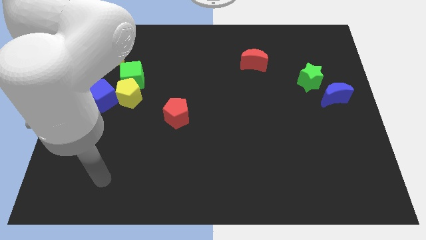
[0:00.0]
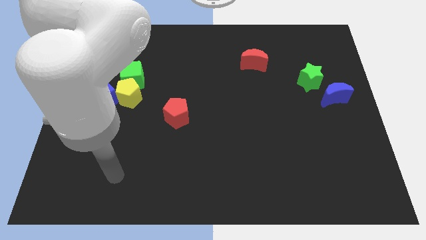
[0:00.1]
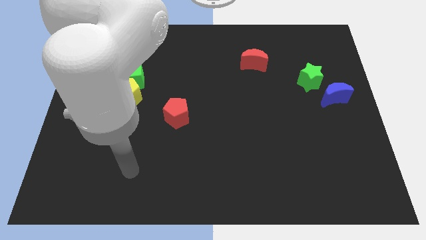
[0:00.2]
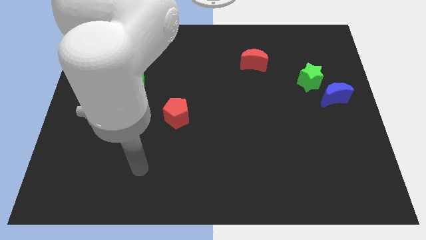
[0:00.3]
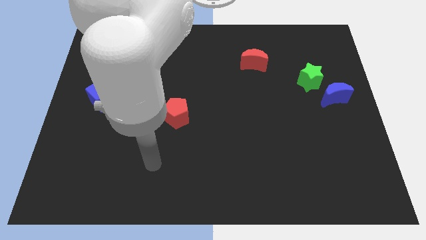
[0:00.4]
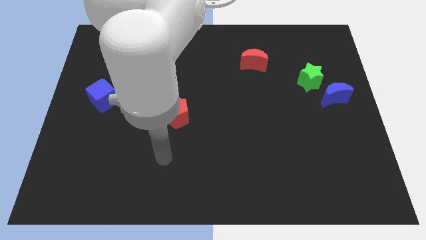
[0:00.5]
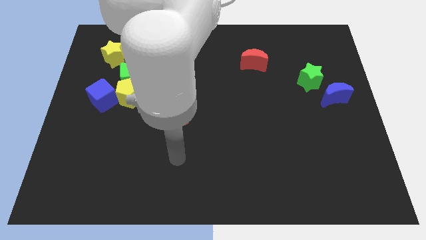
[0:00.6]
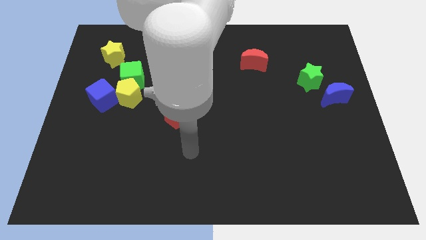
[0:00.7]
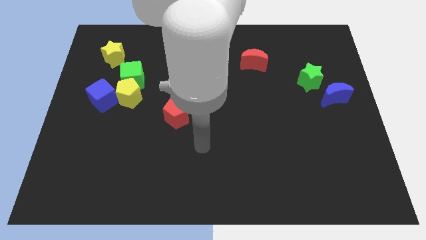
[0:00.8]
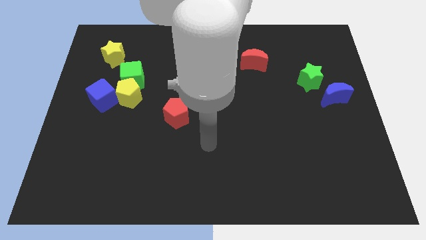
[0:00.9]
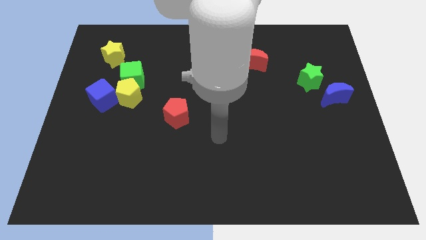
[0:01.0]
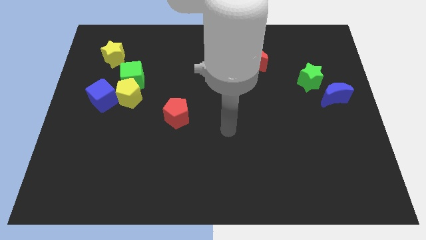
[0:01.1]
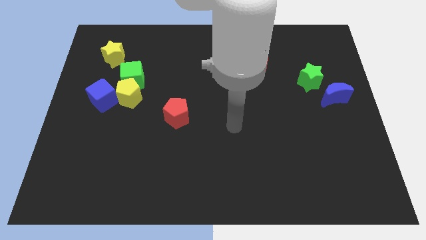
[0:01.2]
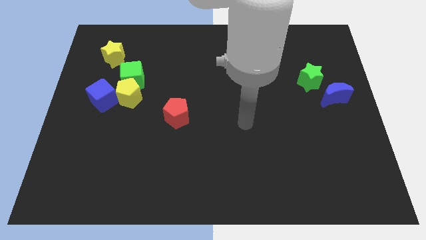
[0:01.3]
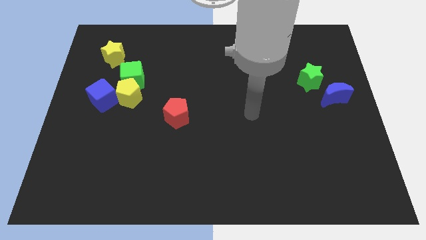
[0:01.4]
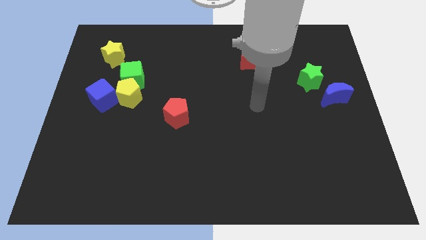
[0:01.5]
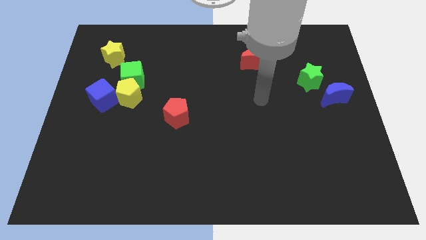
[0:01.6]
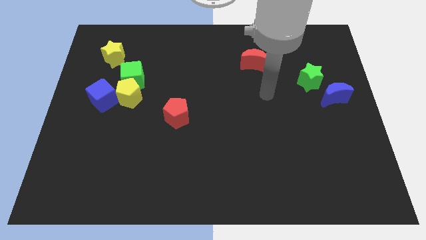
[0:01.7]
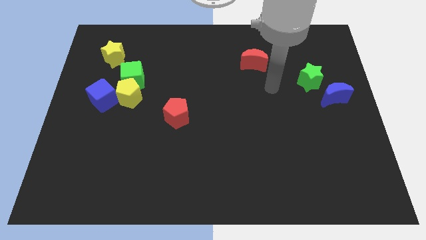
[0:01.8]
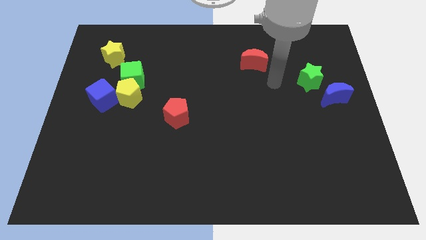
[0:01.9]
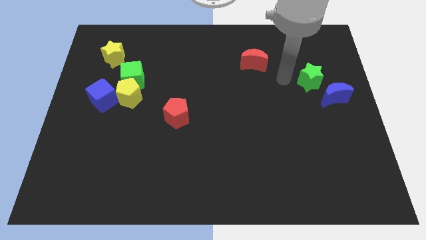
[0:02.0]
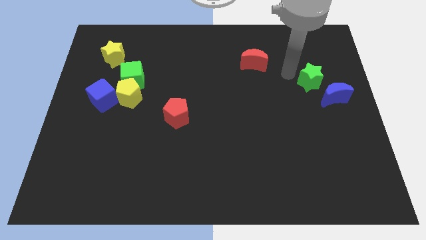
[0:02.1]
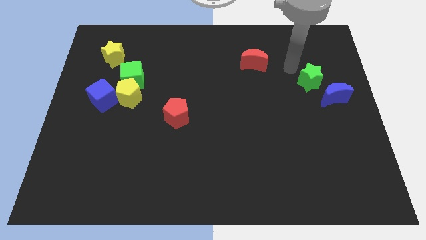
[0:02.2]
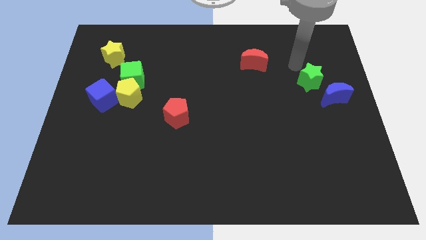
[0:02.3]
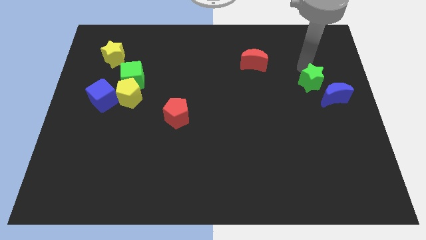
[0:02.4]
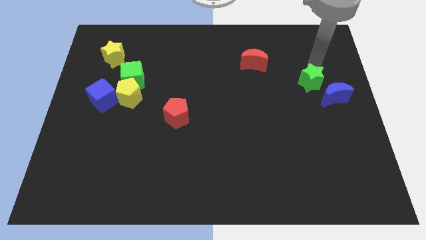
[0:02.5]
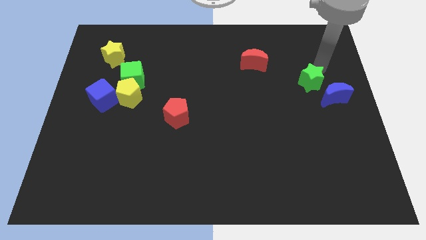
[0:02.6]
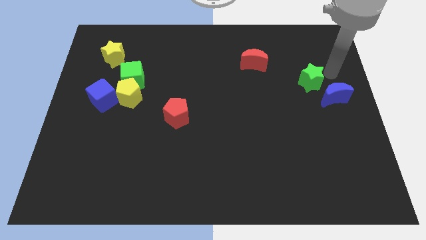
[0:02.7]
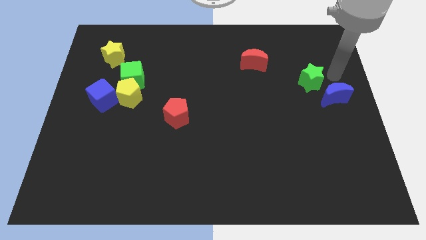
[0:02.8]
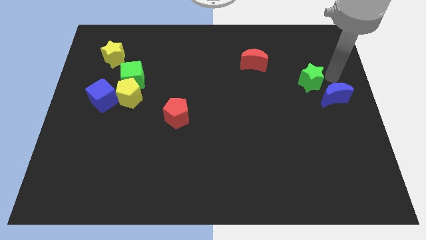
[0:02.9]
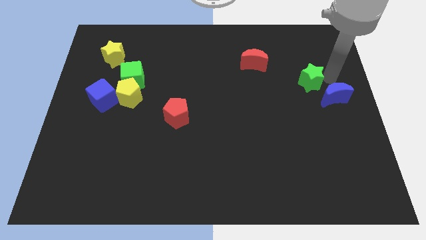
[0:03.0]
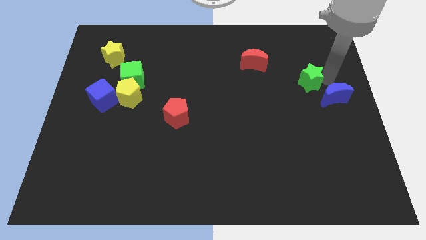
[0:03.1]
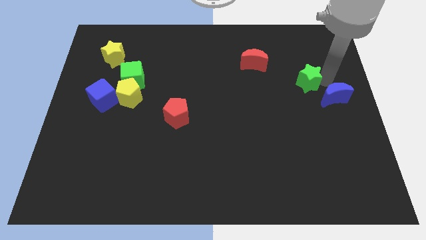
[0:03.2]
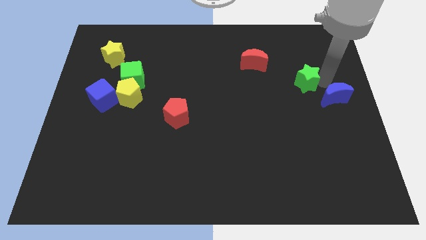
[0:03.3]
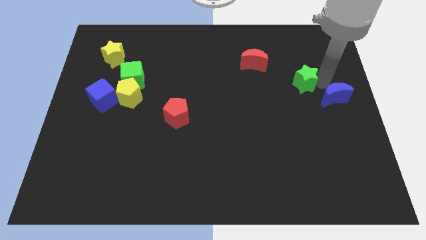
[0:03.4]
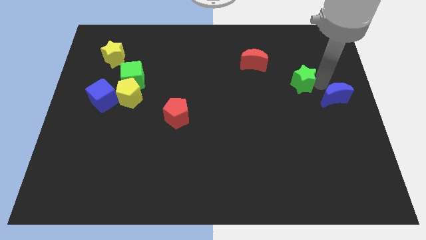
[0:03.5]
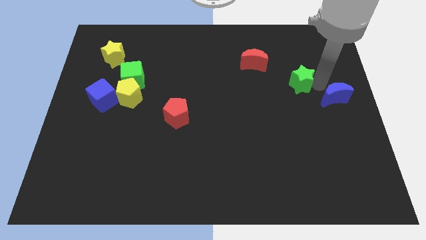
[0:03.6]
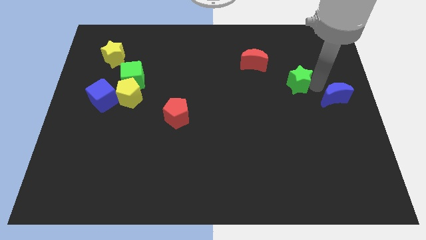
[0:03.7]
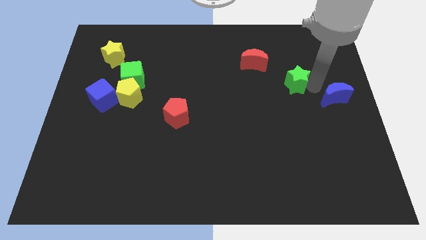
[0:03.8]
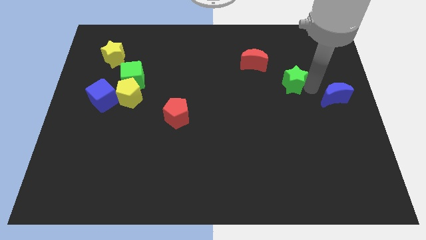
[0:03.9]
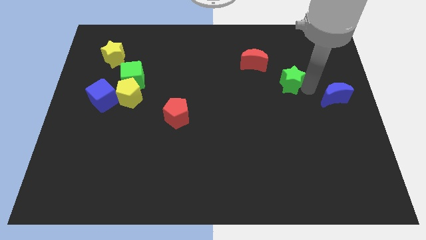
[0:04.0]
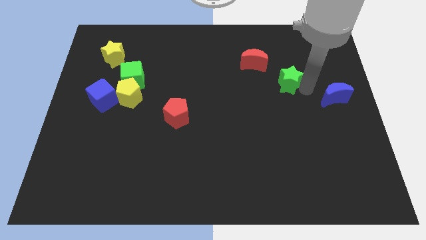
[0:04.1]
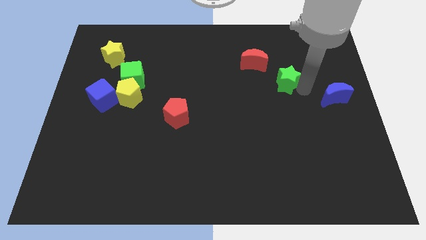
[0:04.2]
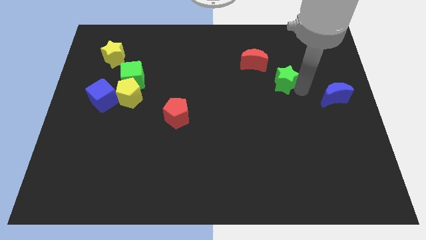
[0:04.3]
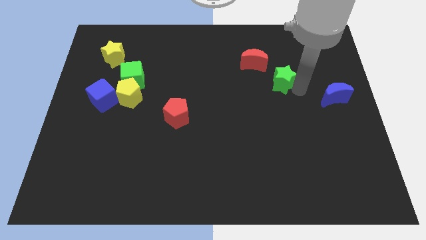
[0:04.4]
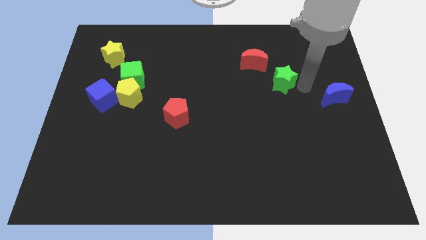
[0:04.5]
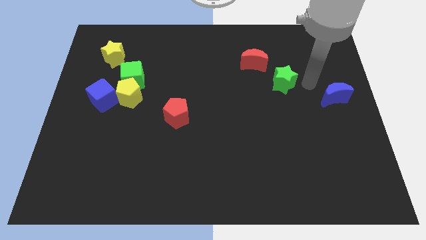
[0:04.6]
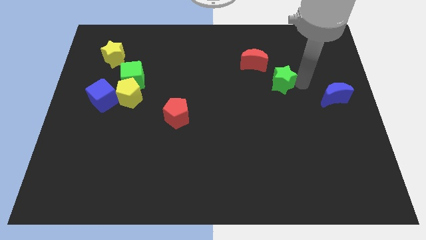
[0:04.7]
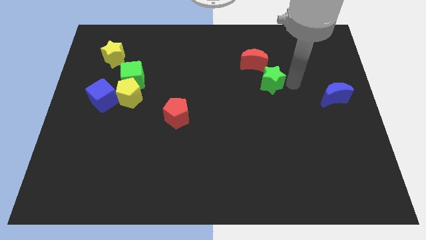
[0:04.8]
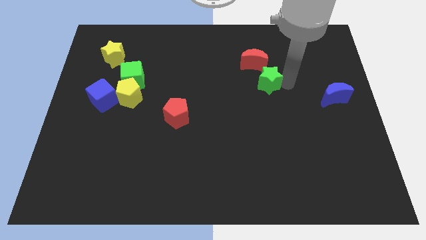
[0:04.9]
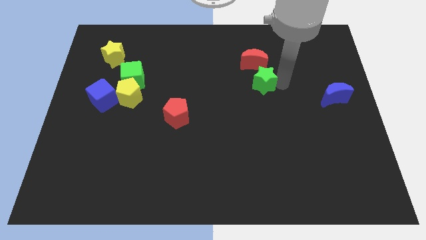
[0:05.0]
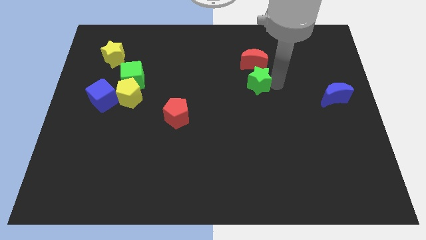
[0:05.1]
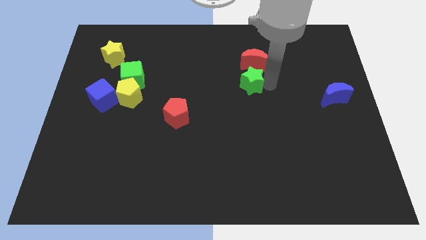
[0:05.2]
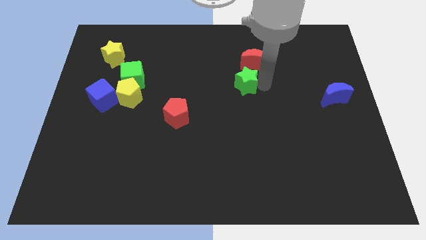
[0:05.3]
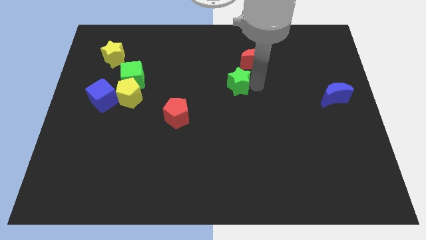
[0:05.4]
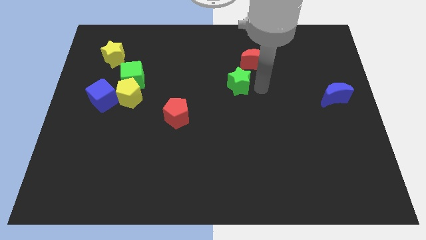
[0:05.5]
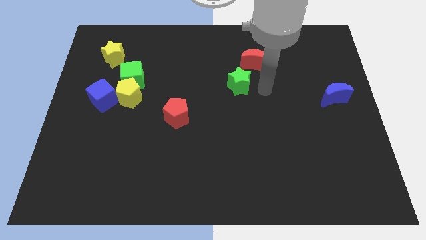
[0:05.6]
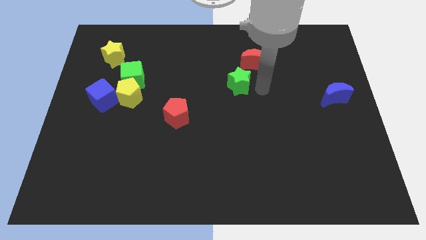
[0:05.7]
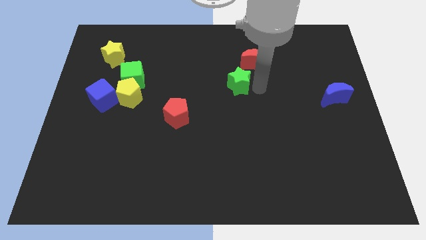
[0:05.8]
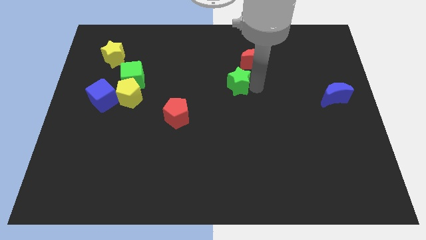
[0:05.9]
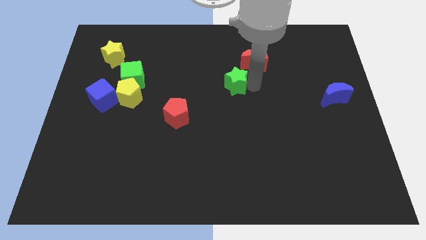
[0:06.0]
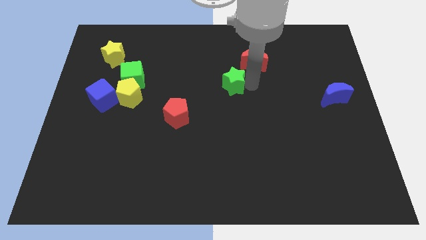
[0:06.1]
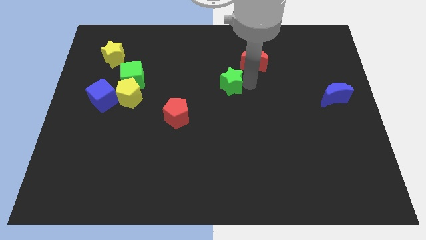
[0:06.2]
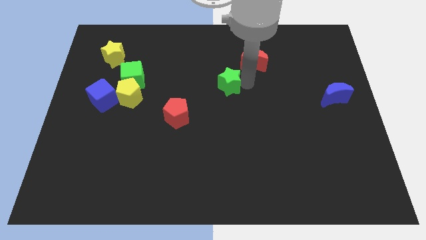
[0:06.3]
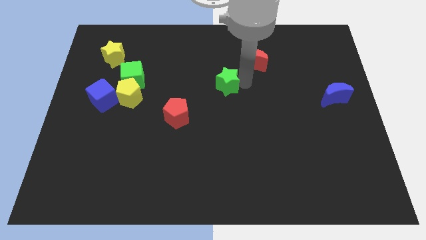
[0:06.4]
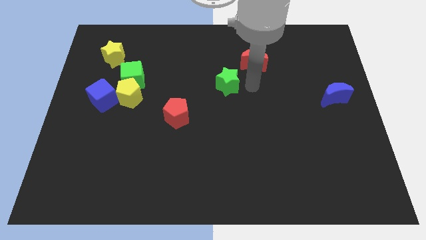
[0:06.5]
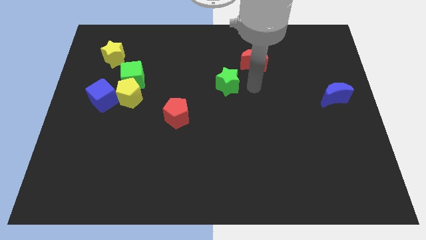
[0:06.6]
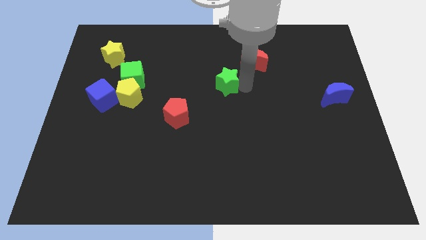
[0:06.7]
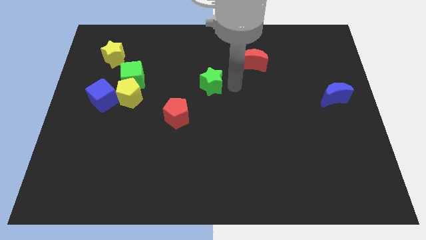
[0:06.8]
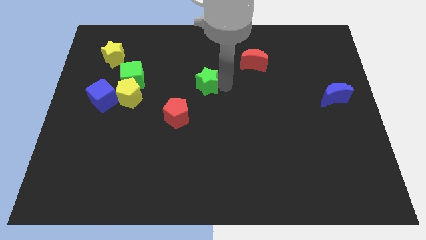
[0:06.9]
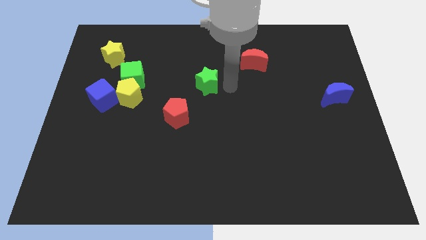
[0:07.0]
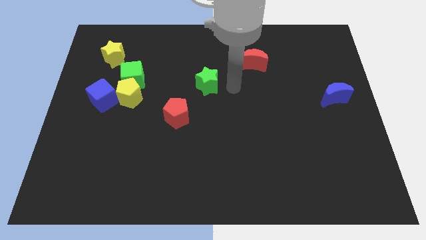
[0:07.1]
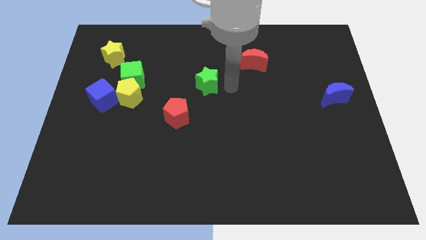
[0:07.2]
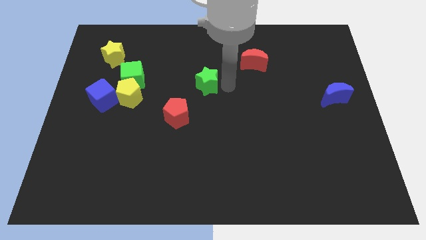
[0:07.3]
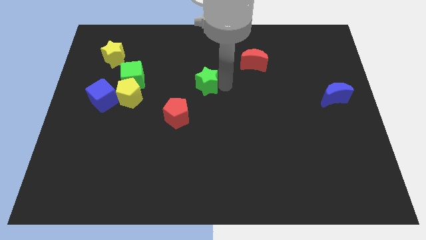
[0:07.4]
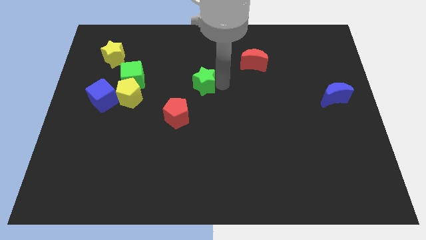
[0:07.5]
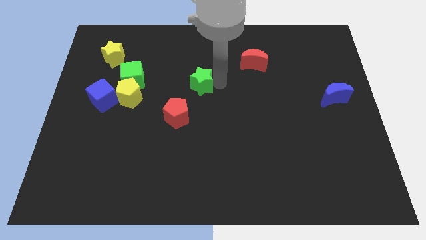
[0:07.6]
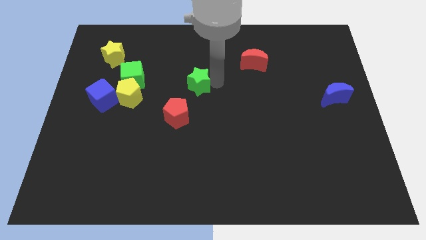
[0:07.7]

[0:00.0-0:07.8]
move the green star to the top of the red pentagon
